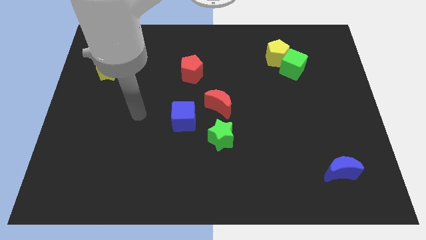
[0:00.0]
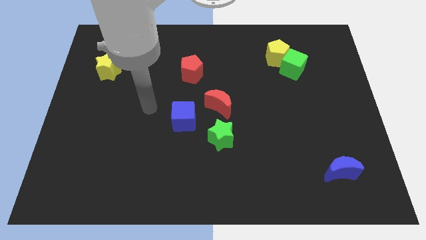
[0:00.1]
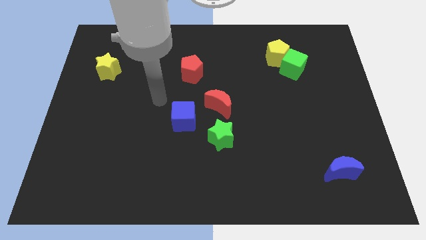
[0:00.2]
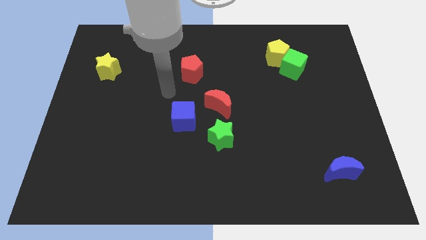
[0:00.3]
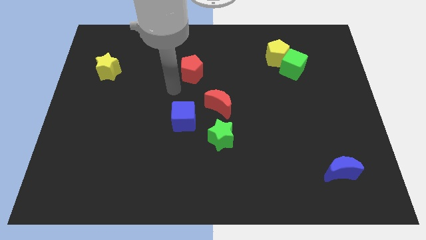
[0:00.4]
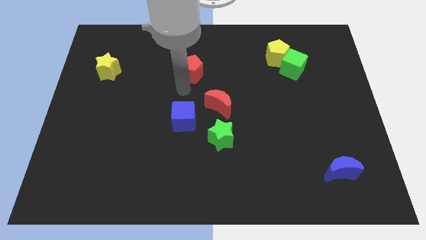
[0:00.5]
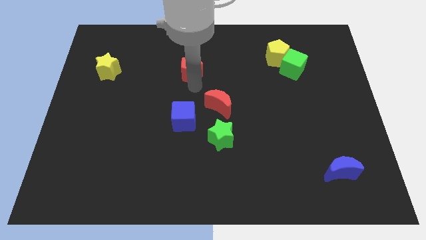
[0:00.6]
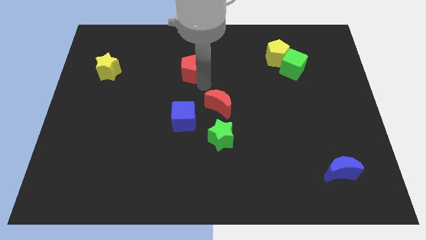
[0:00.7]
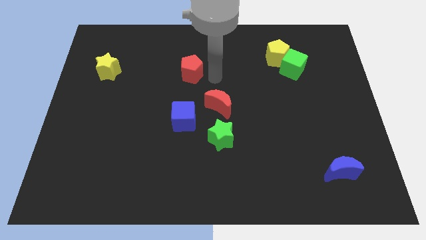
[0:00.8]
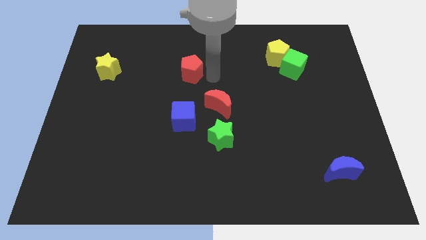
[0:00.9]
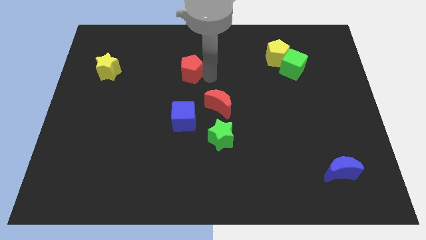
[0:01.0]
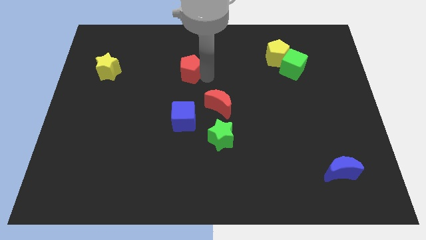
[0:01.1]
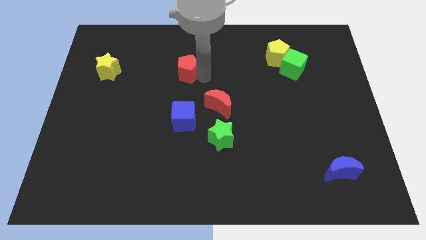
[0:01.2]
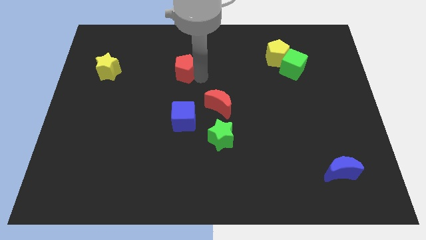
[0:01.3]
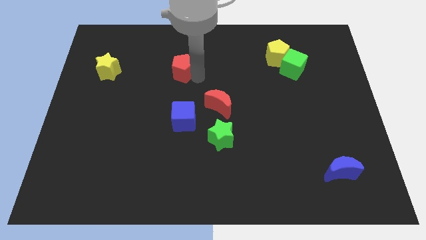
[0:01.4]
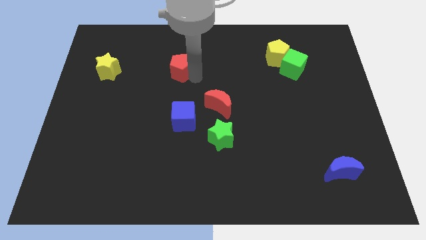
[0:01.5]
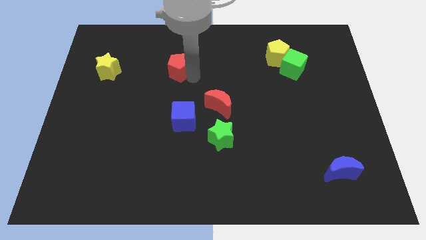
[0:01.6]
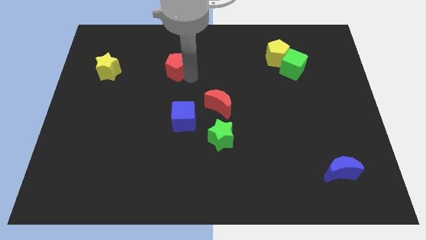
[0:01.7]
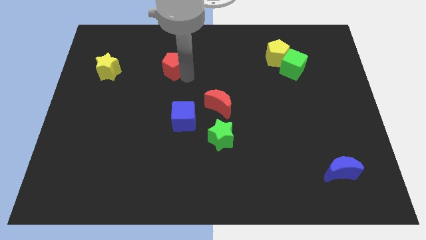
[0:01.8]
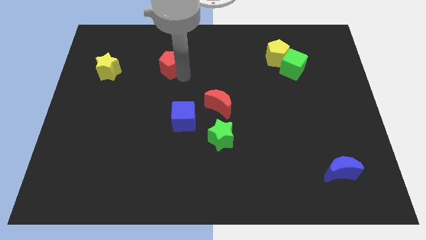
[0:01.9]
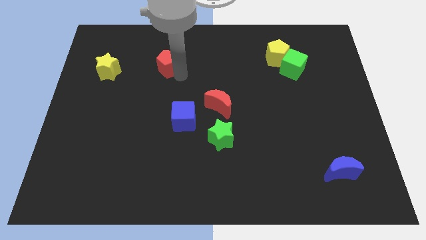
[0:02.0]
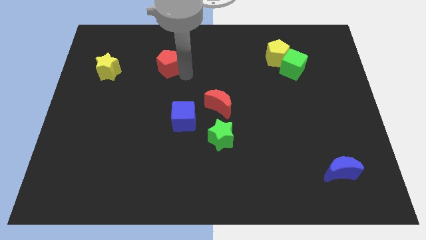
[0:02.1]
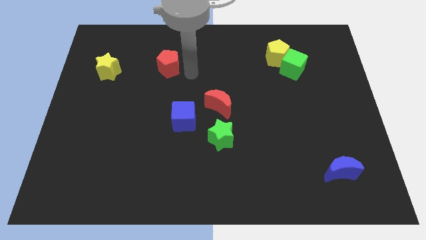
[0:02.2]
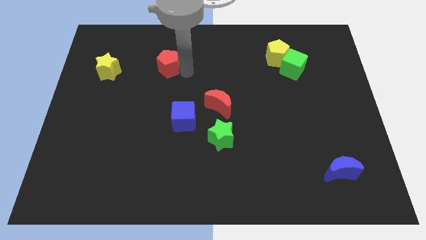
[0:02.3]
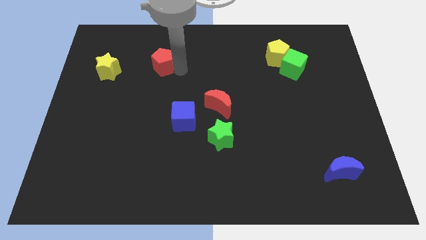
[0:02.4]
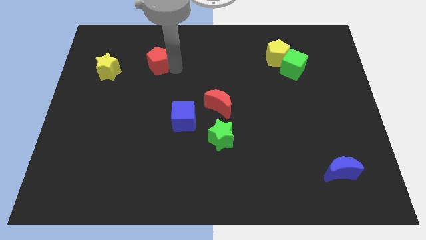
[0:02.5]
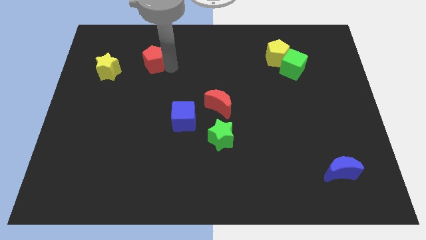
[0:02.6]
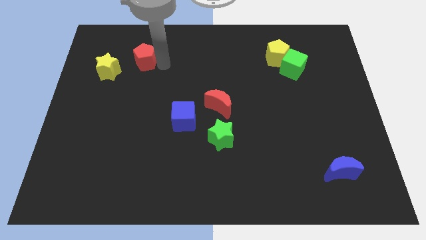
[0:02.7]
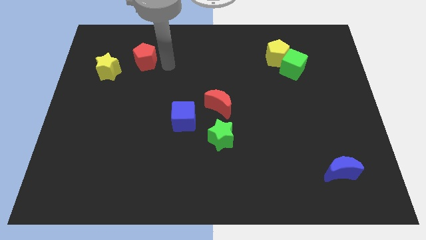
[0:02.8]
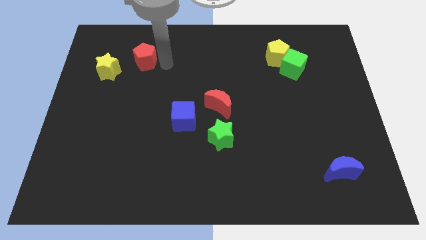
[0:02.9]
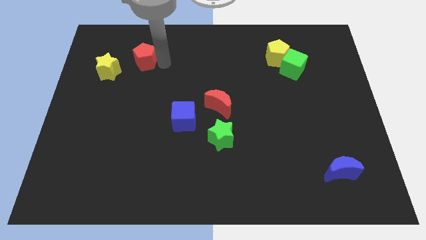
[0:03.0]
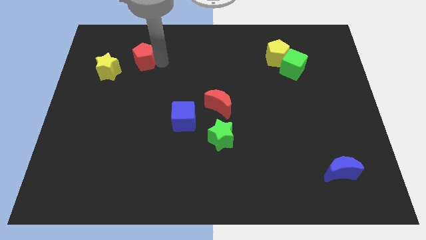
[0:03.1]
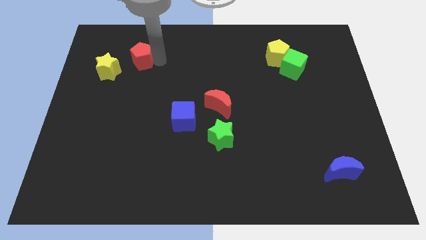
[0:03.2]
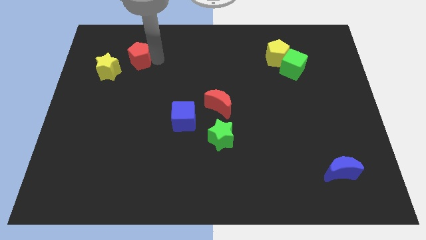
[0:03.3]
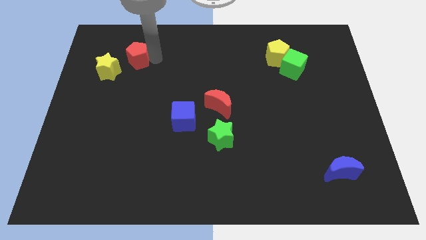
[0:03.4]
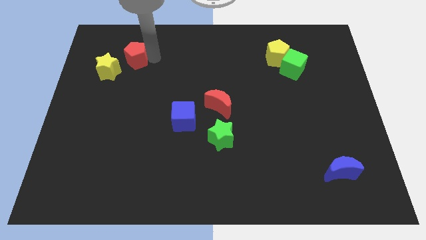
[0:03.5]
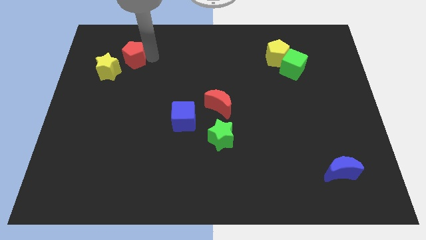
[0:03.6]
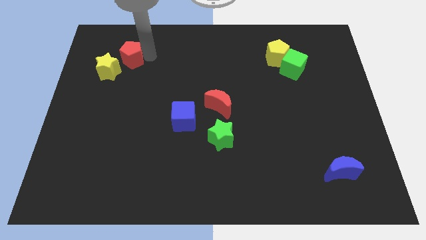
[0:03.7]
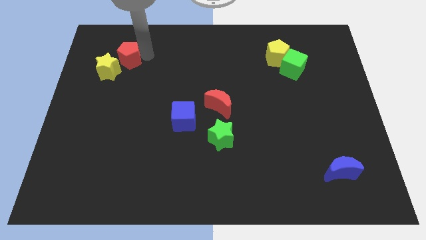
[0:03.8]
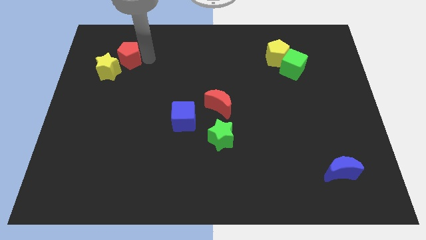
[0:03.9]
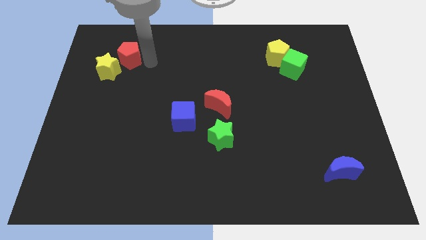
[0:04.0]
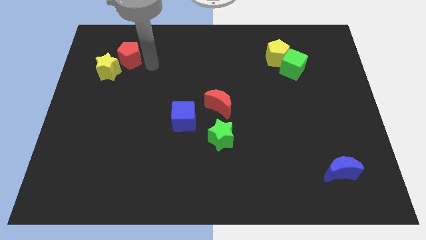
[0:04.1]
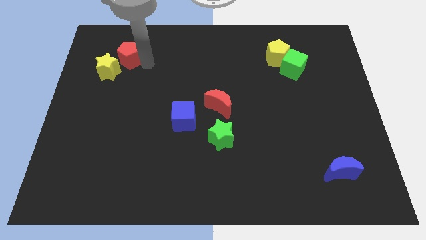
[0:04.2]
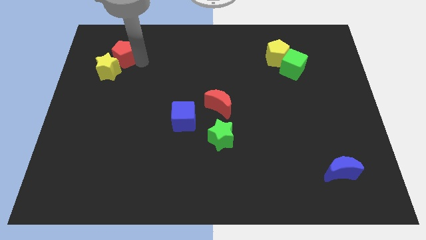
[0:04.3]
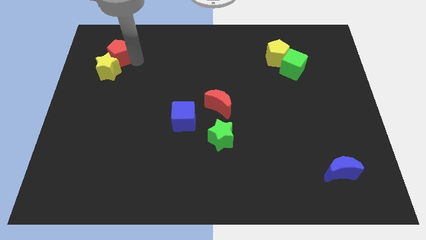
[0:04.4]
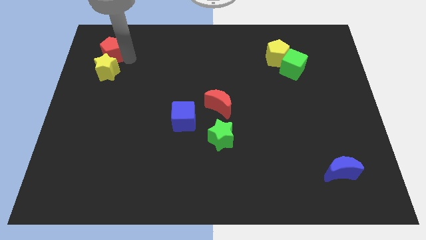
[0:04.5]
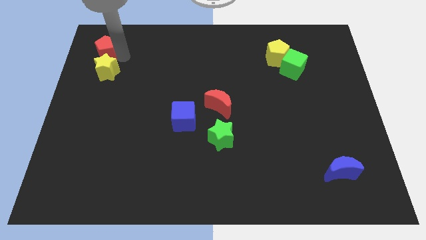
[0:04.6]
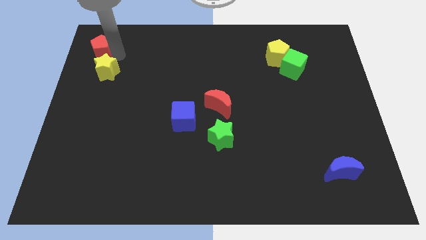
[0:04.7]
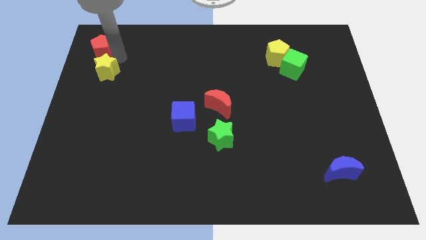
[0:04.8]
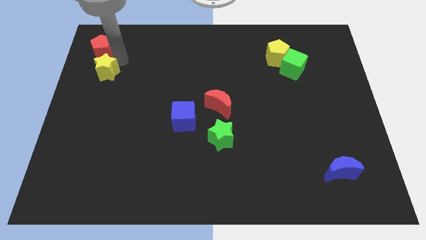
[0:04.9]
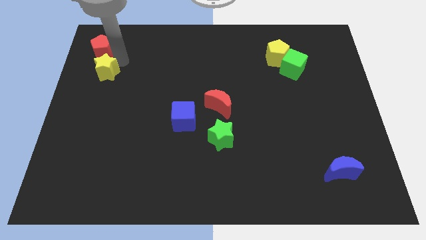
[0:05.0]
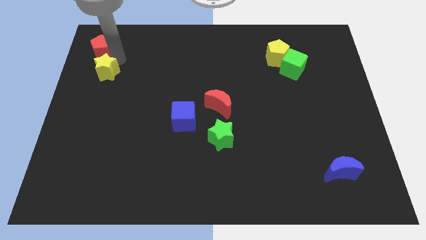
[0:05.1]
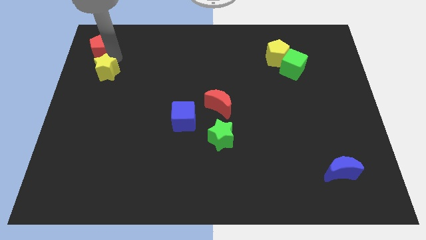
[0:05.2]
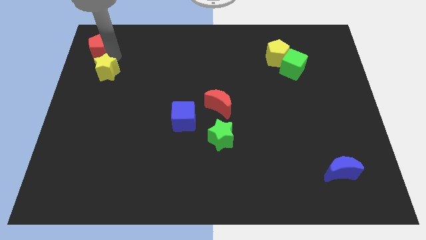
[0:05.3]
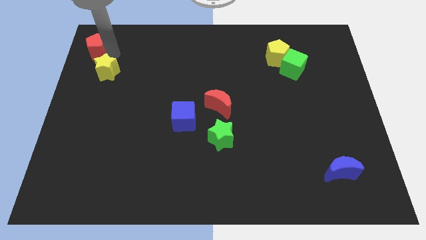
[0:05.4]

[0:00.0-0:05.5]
put the red pentagon to the top left

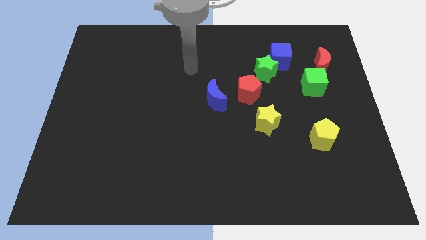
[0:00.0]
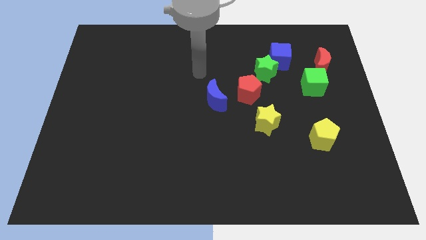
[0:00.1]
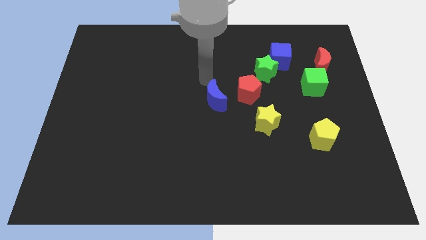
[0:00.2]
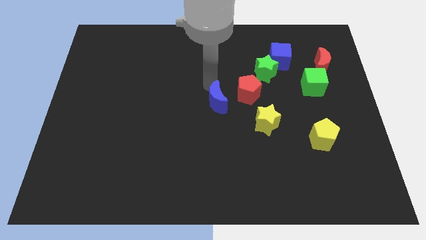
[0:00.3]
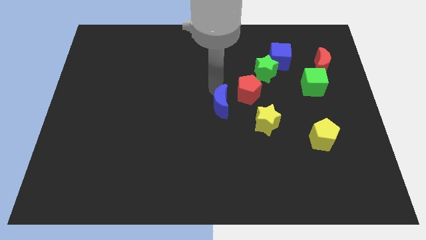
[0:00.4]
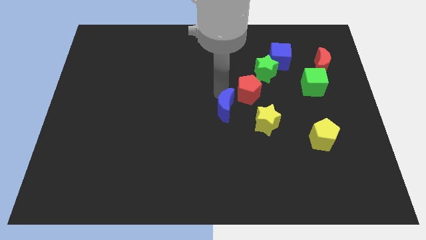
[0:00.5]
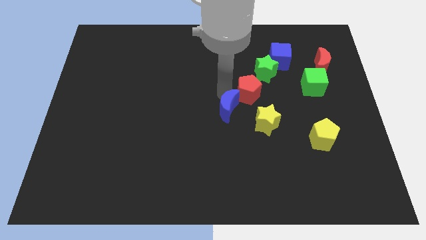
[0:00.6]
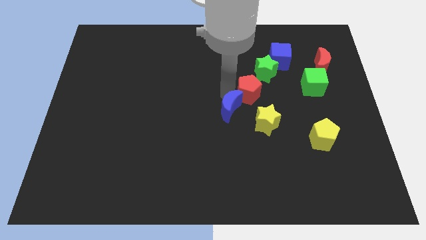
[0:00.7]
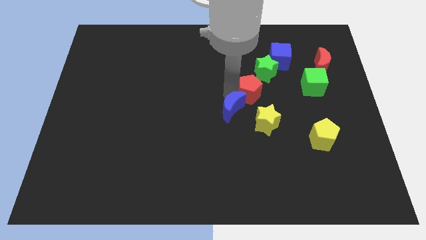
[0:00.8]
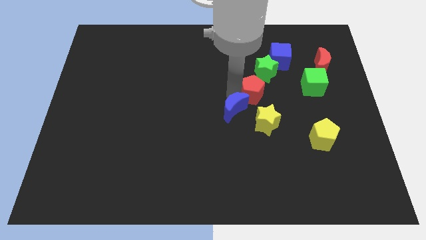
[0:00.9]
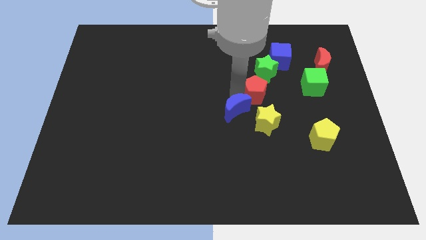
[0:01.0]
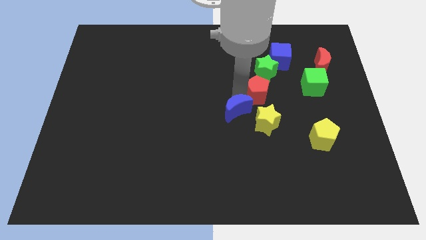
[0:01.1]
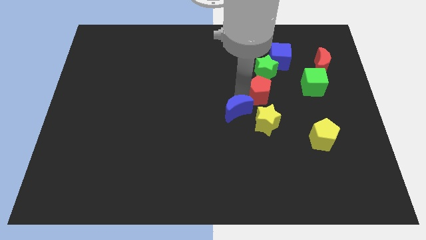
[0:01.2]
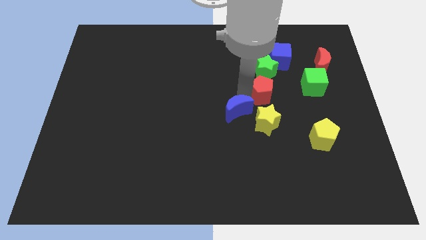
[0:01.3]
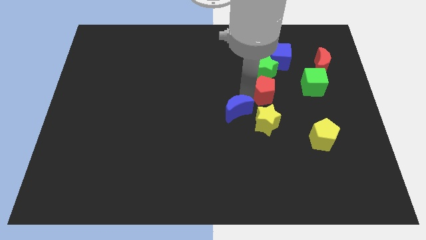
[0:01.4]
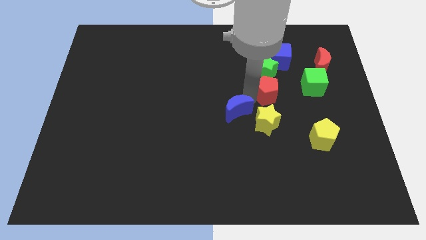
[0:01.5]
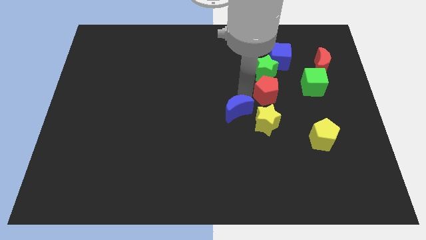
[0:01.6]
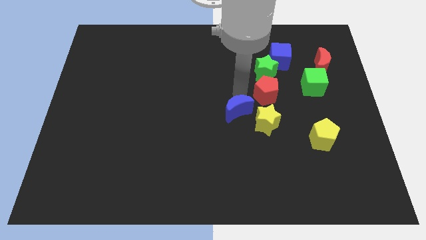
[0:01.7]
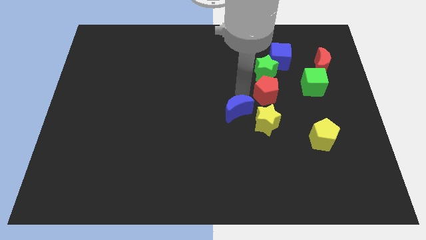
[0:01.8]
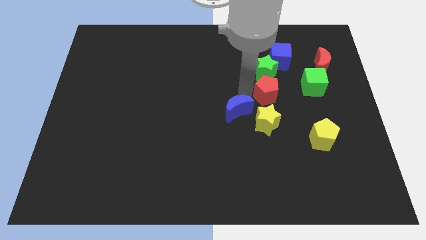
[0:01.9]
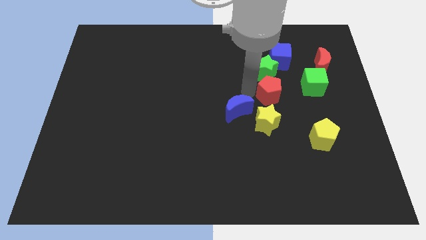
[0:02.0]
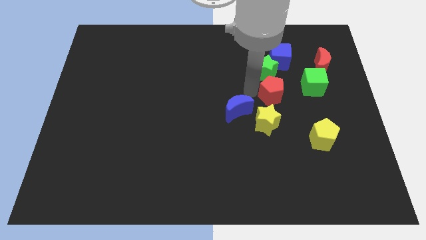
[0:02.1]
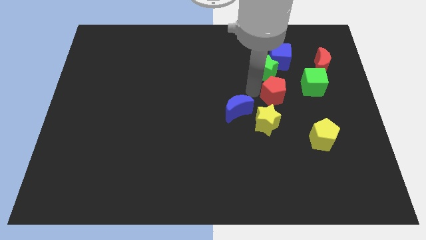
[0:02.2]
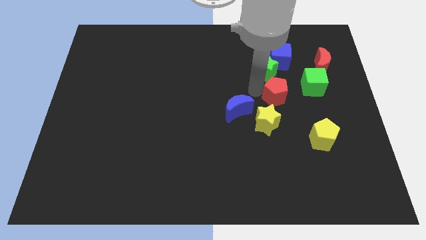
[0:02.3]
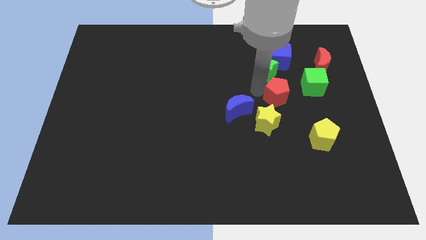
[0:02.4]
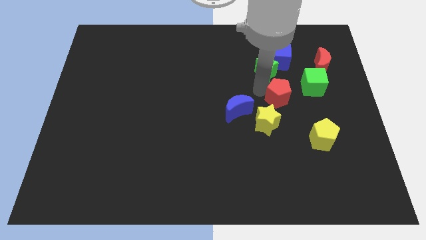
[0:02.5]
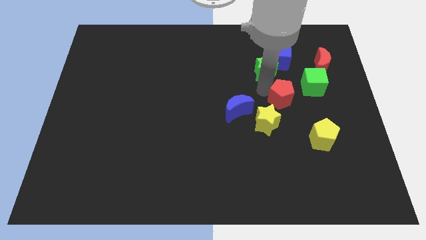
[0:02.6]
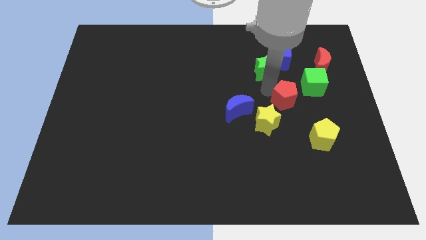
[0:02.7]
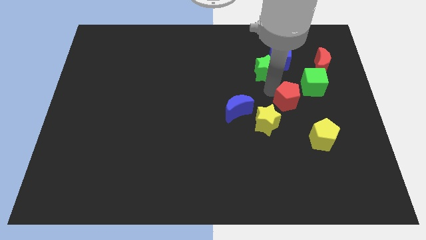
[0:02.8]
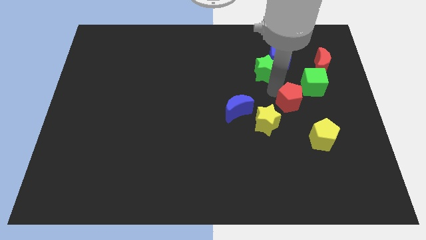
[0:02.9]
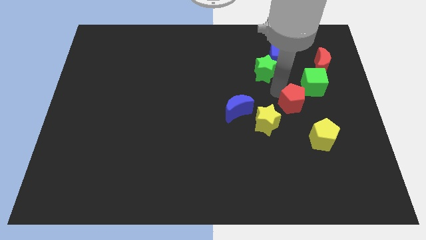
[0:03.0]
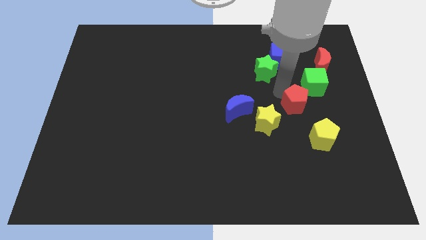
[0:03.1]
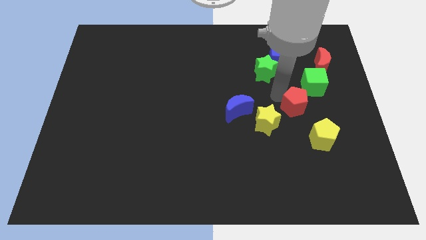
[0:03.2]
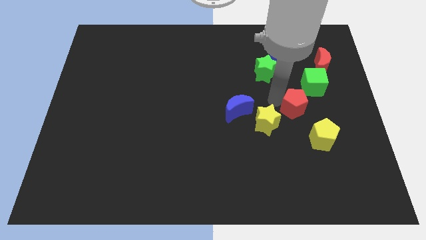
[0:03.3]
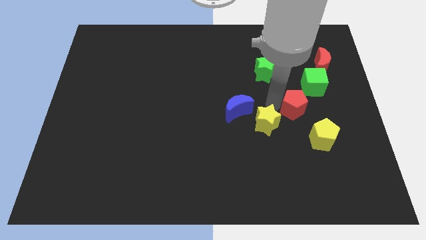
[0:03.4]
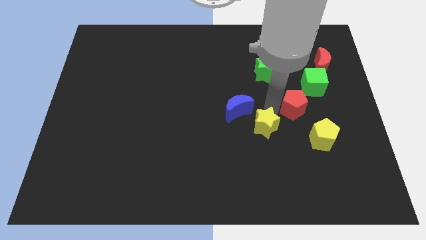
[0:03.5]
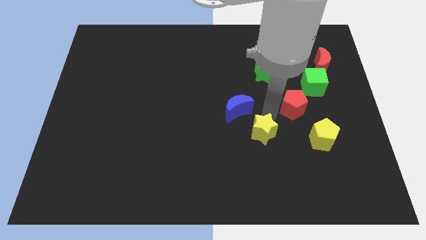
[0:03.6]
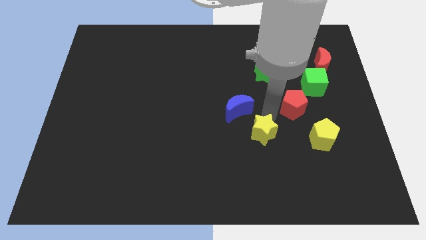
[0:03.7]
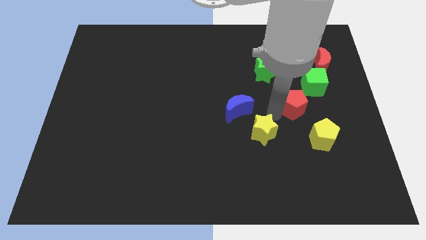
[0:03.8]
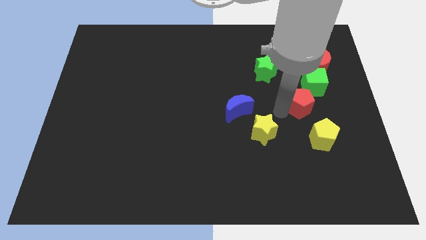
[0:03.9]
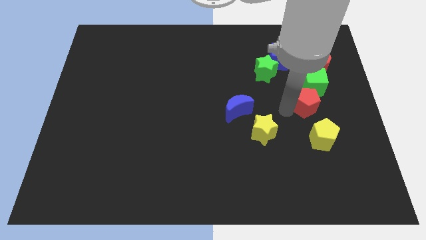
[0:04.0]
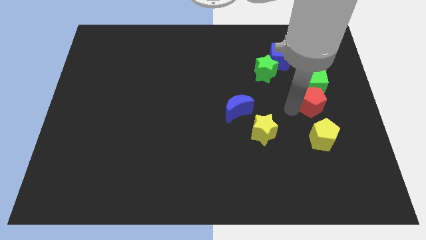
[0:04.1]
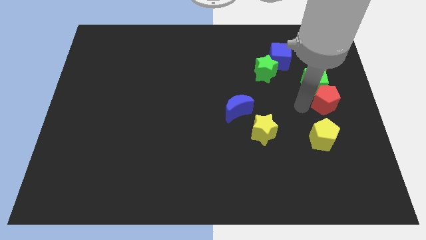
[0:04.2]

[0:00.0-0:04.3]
move the red pentagon to the right side
